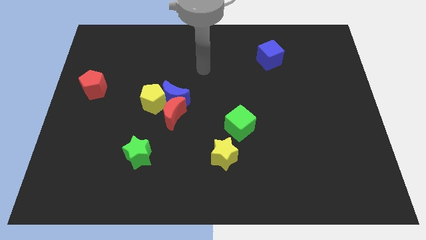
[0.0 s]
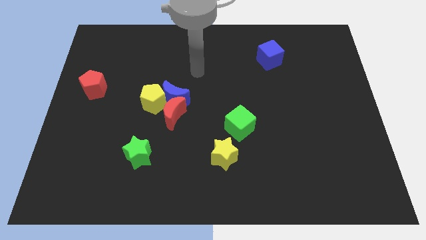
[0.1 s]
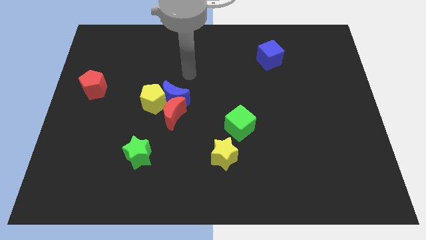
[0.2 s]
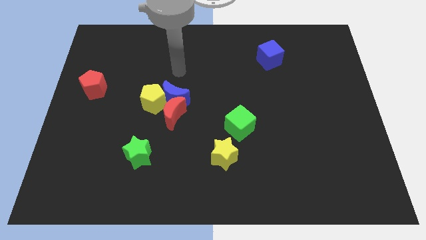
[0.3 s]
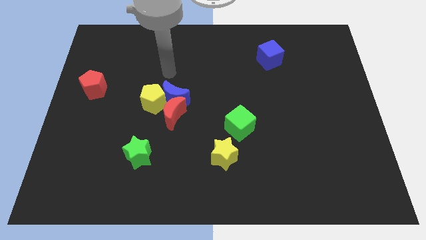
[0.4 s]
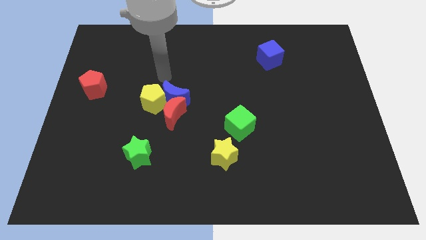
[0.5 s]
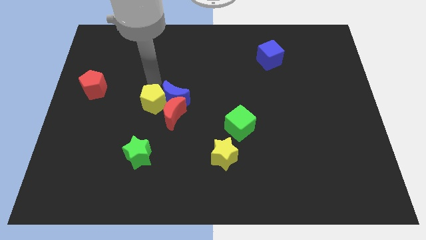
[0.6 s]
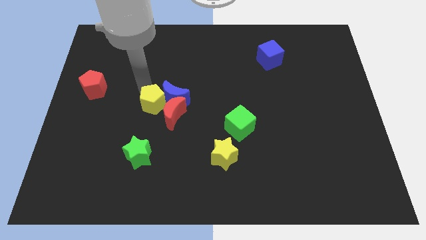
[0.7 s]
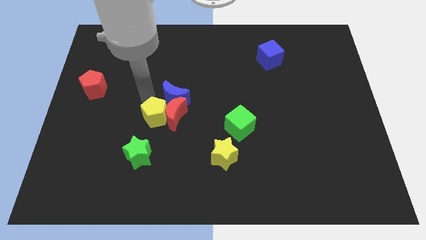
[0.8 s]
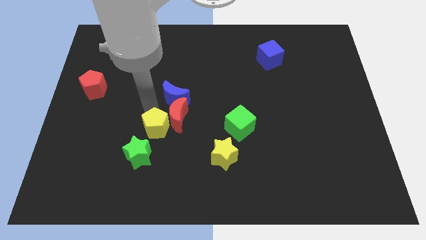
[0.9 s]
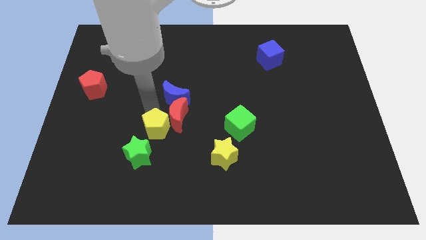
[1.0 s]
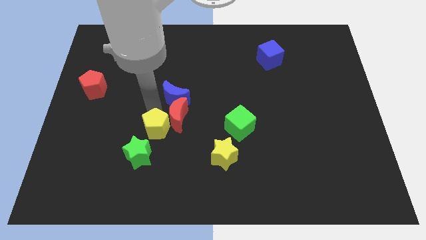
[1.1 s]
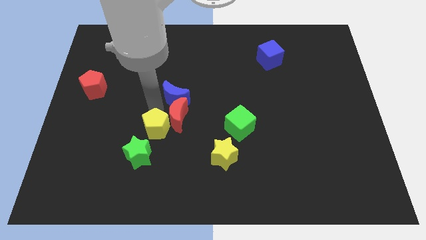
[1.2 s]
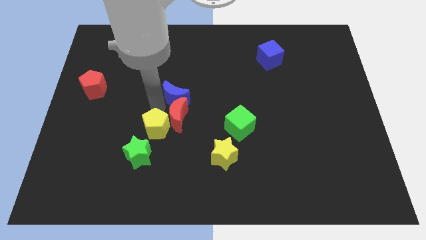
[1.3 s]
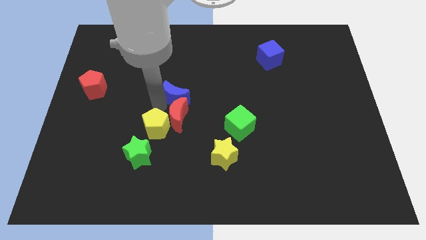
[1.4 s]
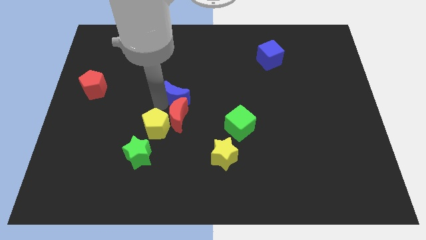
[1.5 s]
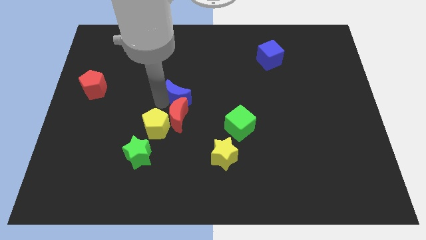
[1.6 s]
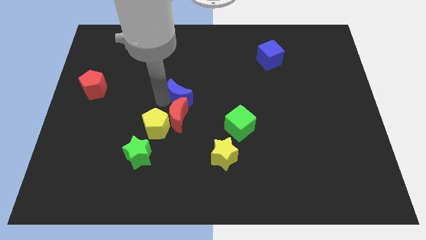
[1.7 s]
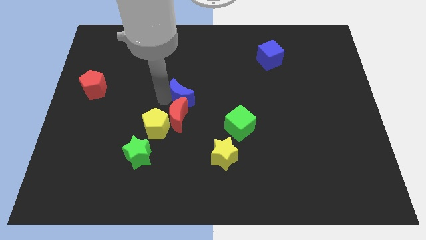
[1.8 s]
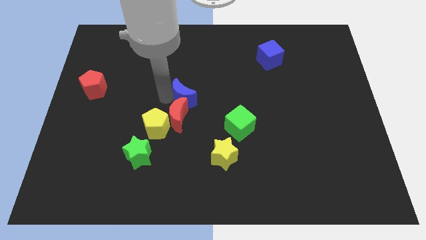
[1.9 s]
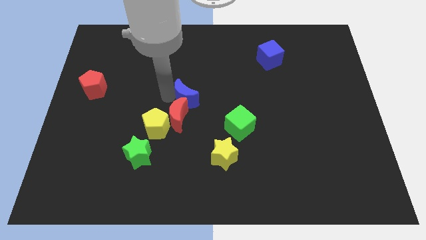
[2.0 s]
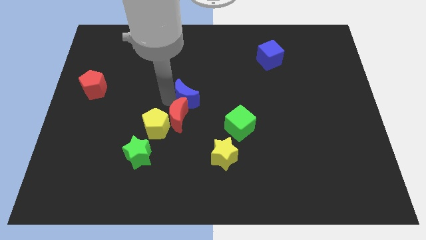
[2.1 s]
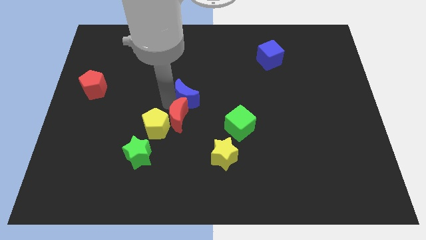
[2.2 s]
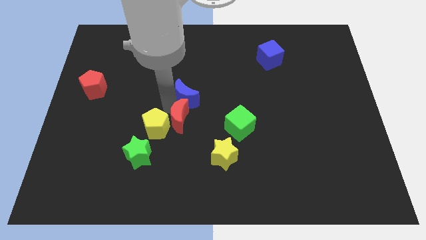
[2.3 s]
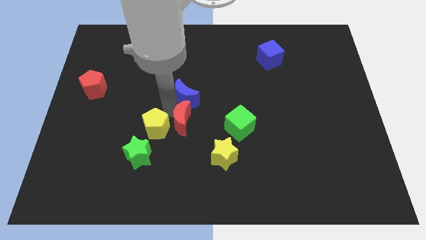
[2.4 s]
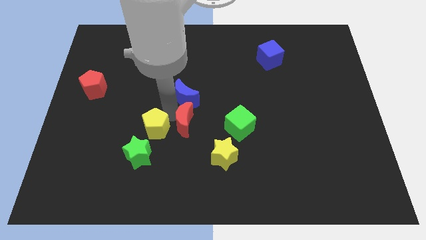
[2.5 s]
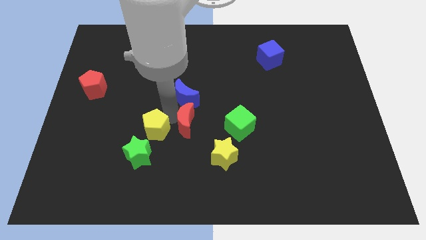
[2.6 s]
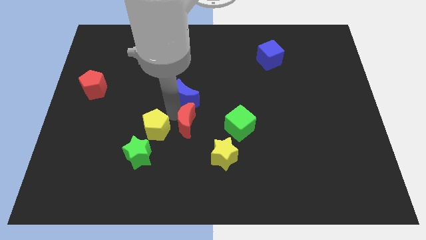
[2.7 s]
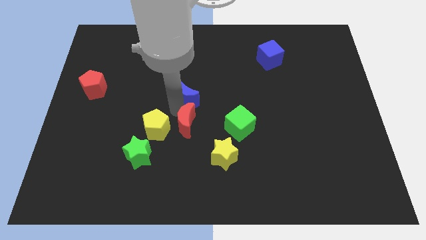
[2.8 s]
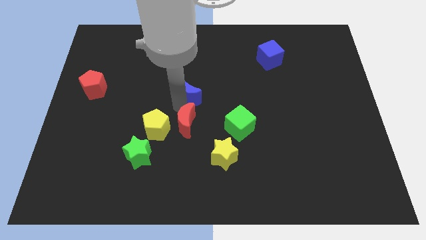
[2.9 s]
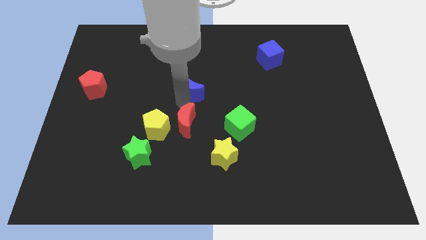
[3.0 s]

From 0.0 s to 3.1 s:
pull the blue moon apart from the red moon and yellow pentagon

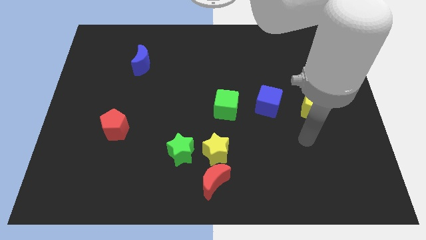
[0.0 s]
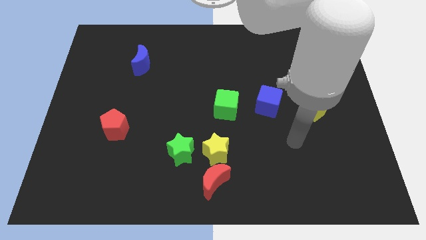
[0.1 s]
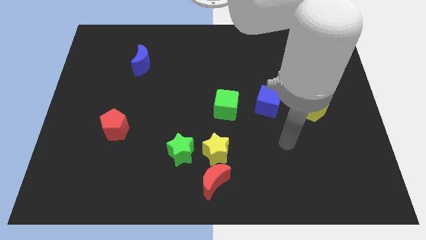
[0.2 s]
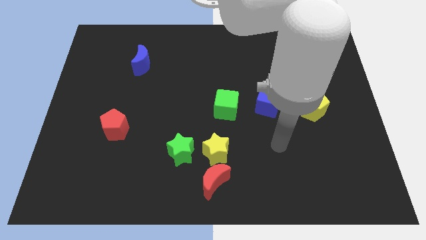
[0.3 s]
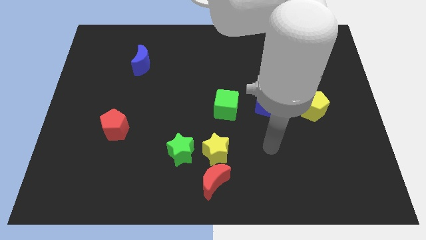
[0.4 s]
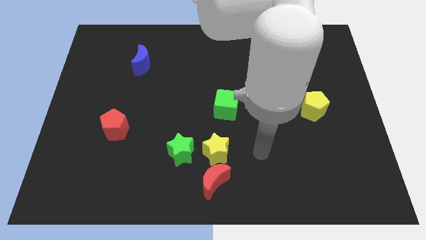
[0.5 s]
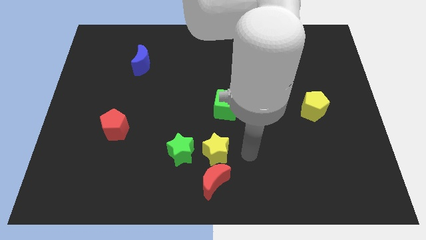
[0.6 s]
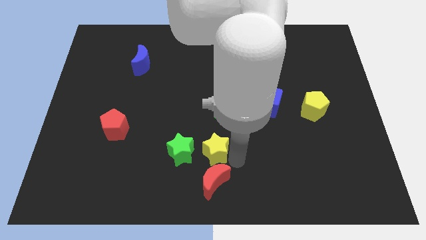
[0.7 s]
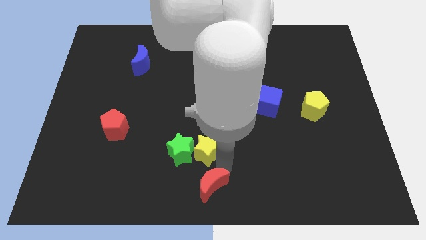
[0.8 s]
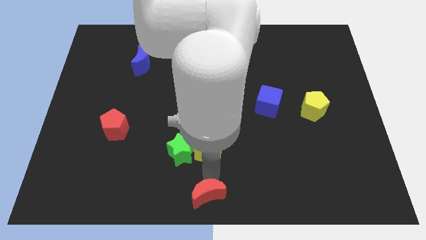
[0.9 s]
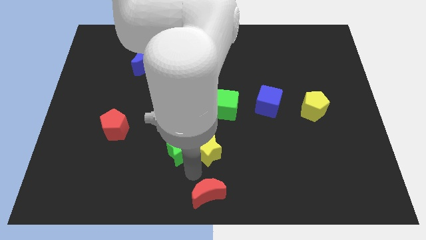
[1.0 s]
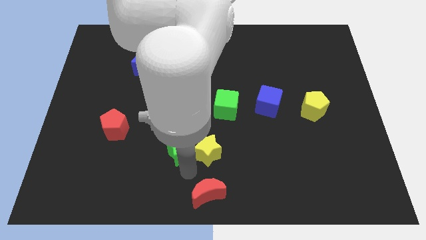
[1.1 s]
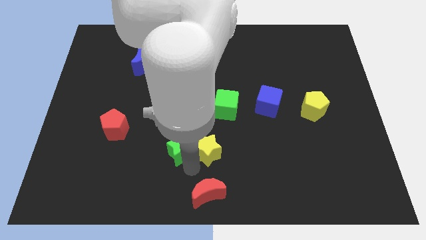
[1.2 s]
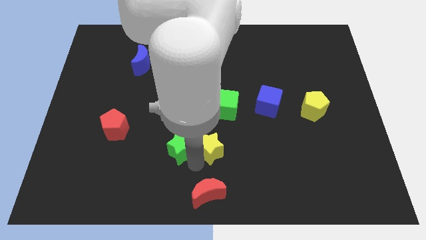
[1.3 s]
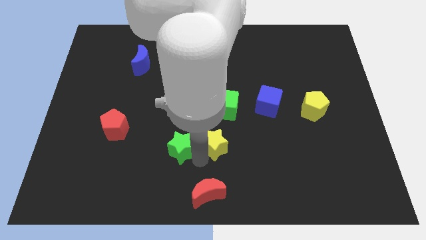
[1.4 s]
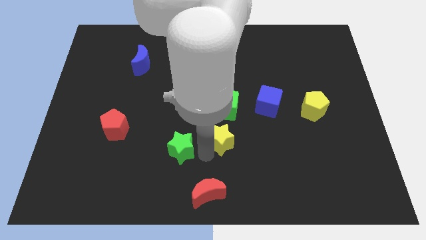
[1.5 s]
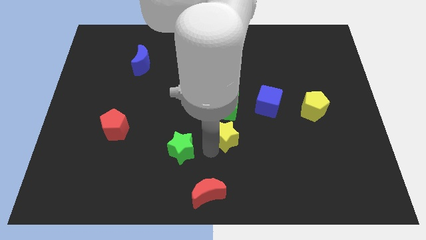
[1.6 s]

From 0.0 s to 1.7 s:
pull the yellow star apart from the red moon and green star

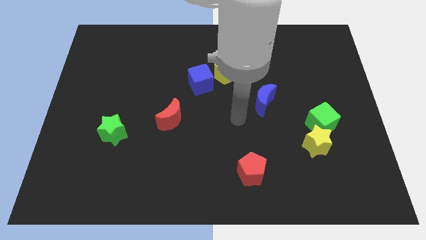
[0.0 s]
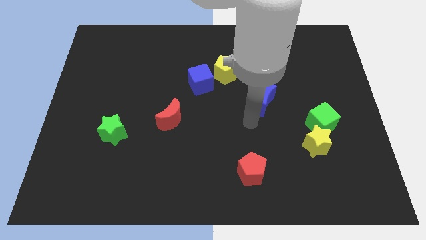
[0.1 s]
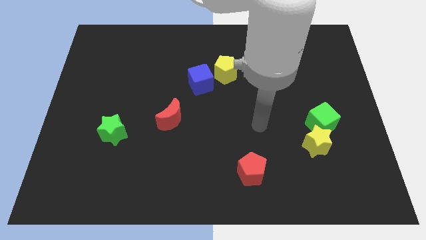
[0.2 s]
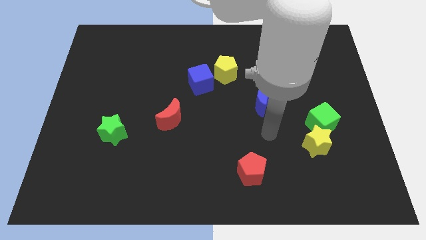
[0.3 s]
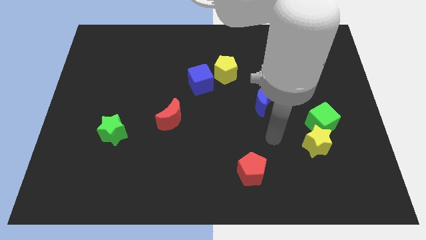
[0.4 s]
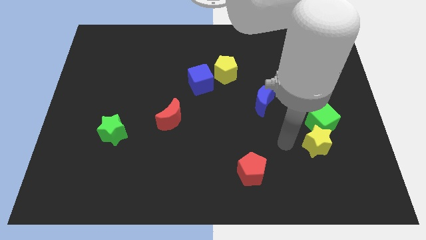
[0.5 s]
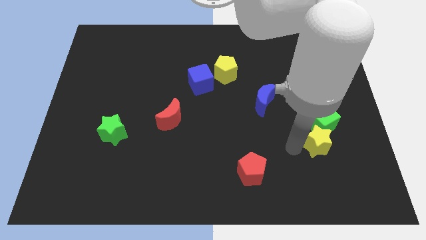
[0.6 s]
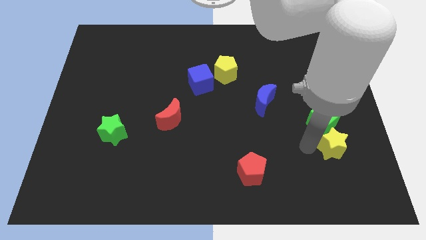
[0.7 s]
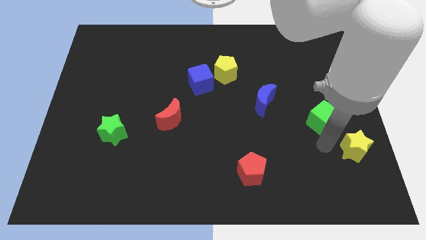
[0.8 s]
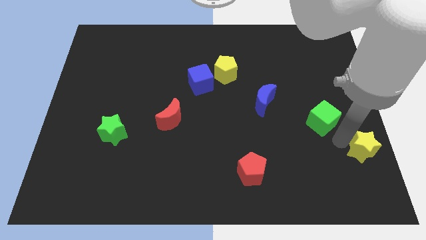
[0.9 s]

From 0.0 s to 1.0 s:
separate the green cube from the yellow star

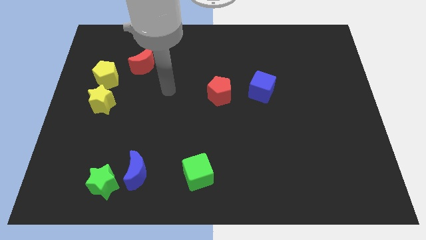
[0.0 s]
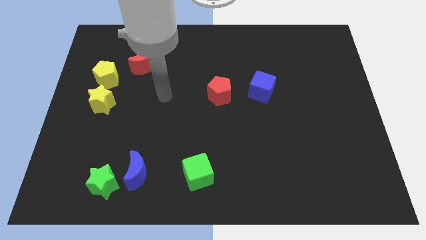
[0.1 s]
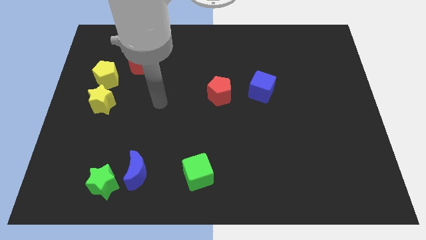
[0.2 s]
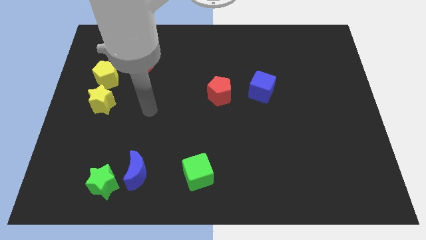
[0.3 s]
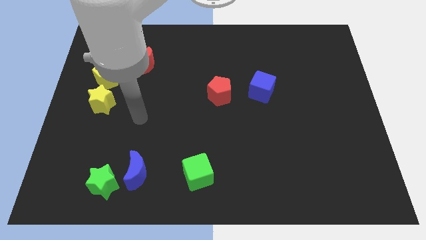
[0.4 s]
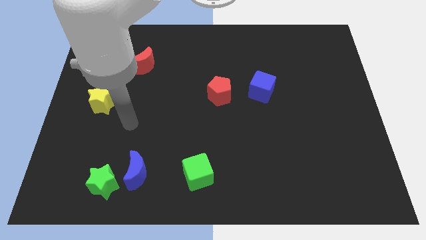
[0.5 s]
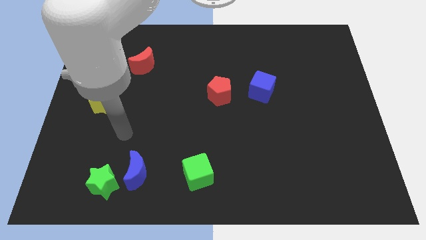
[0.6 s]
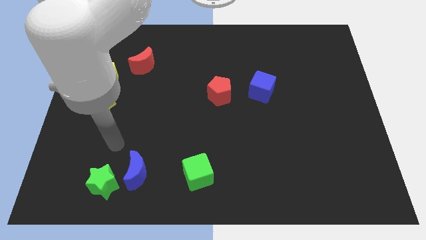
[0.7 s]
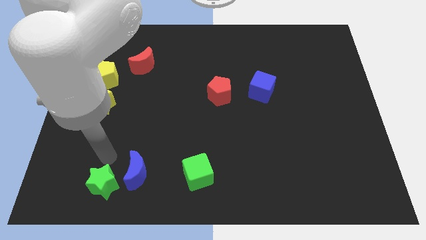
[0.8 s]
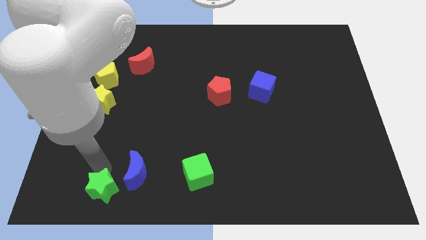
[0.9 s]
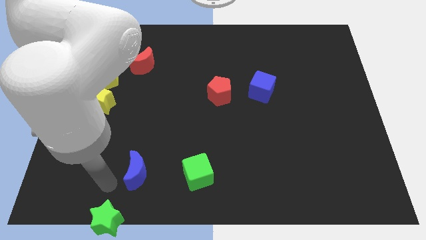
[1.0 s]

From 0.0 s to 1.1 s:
pull the blue moon apart from the green star

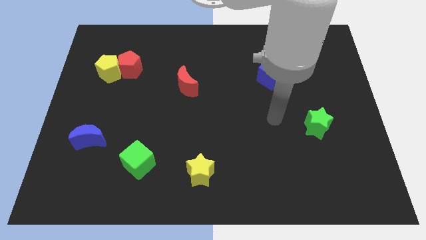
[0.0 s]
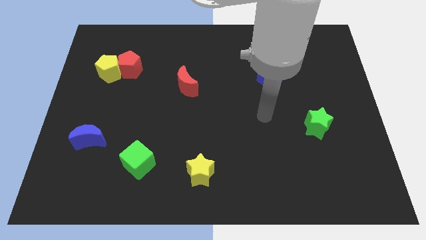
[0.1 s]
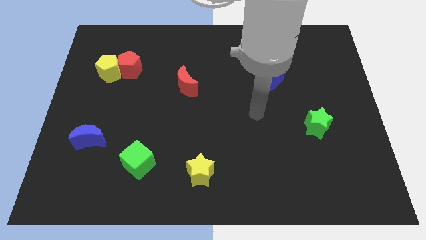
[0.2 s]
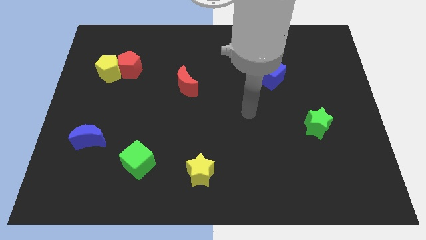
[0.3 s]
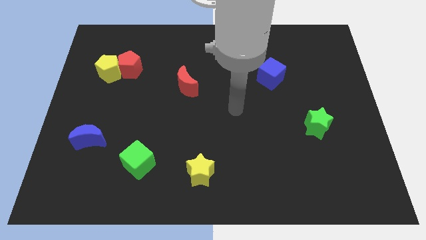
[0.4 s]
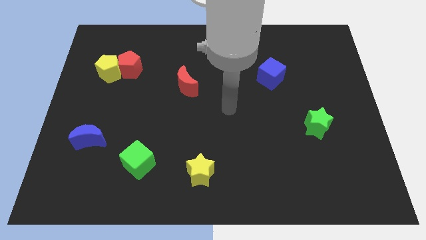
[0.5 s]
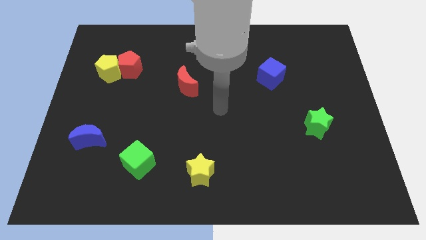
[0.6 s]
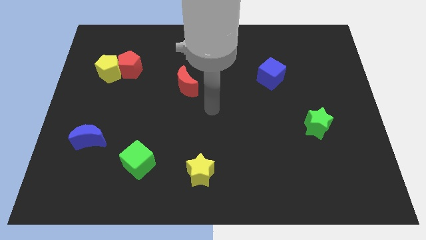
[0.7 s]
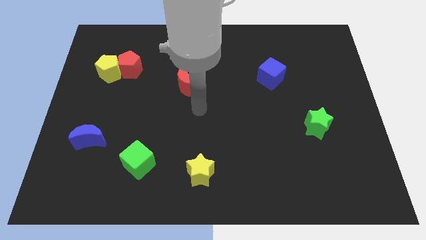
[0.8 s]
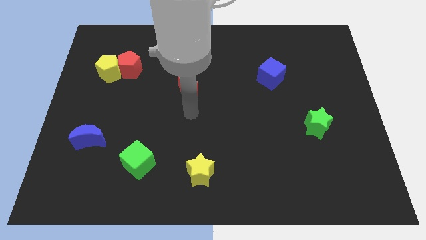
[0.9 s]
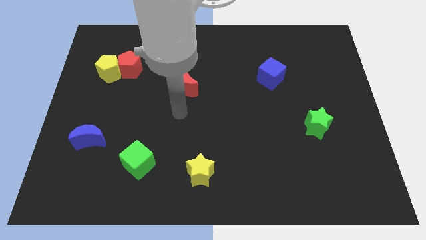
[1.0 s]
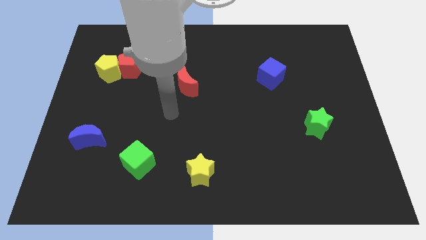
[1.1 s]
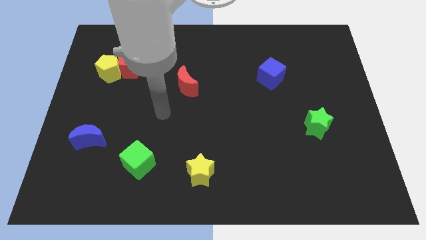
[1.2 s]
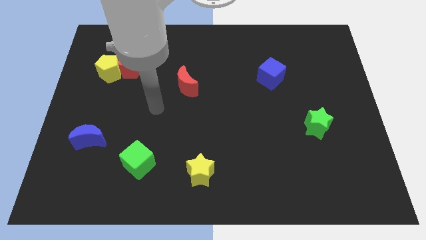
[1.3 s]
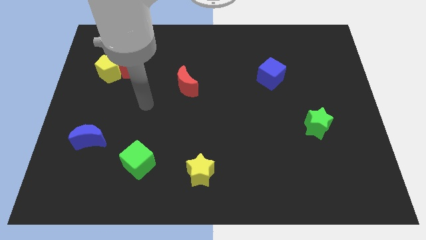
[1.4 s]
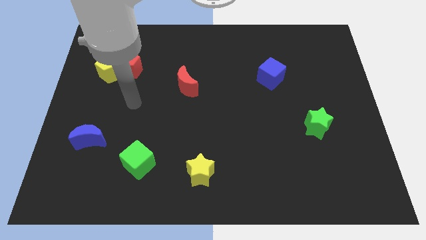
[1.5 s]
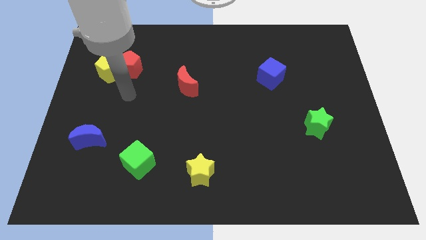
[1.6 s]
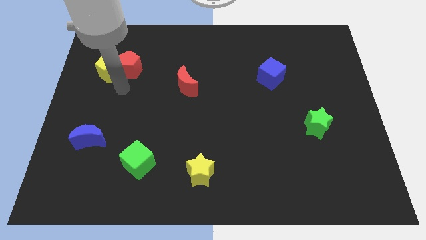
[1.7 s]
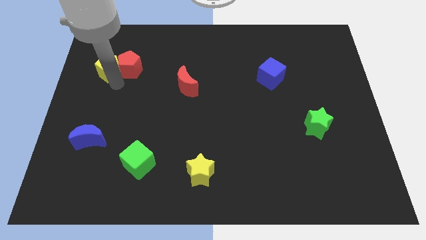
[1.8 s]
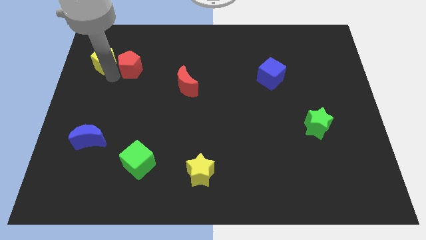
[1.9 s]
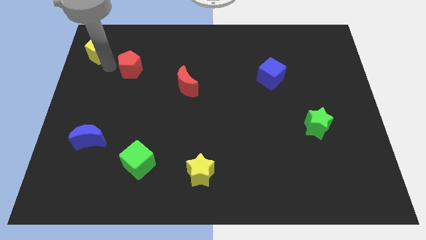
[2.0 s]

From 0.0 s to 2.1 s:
separate the red pentagon from the yellow pentagon

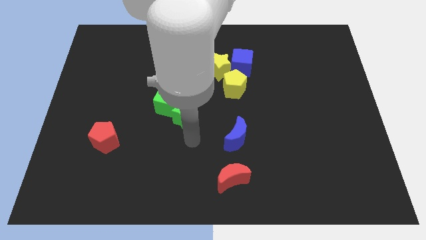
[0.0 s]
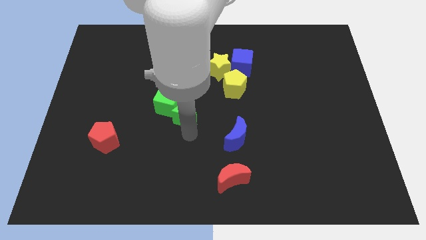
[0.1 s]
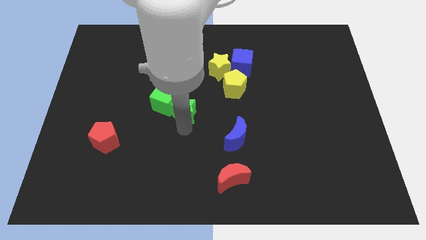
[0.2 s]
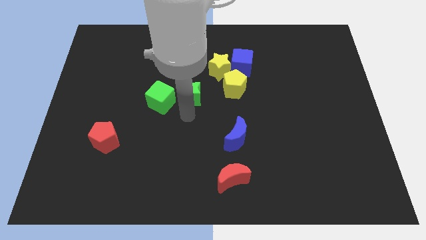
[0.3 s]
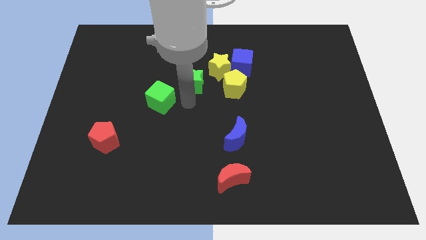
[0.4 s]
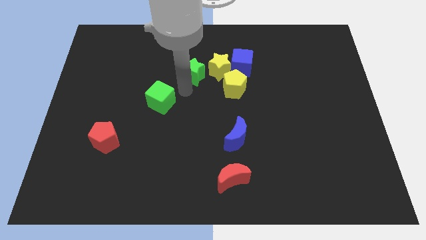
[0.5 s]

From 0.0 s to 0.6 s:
move the green cube away from the green star
